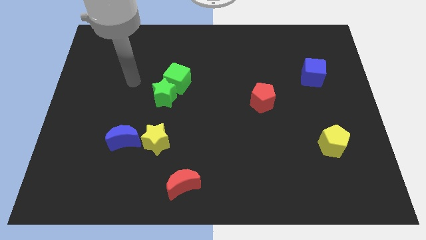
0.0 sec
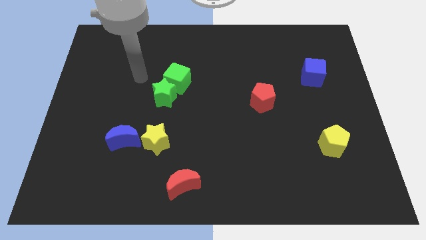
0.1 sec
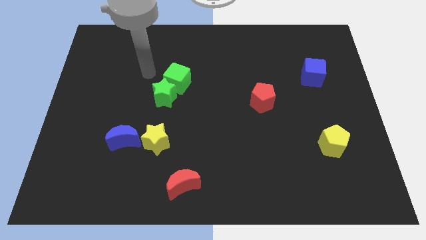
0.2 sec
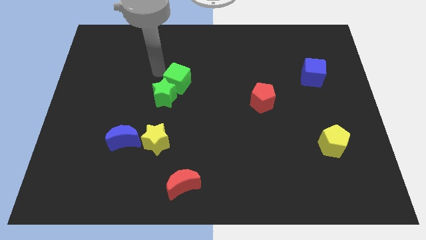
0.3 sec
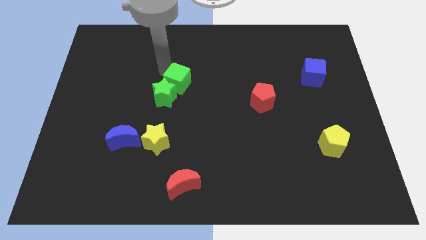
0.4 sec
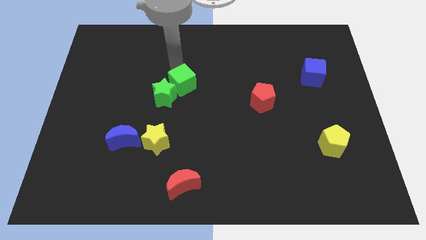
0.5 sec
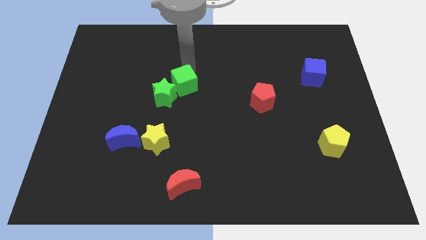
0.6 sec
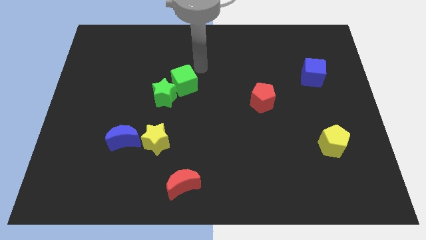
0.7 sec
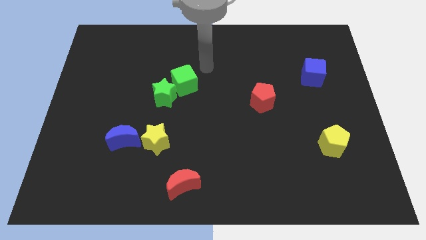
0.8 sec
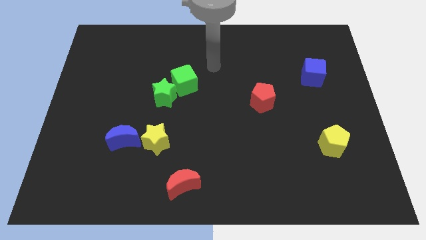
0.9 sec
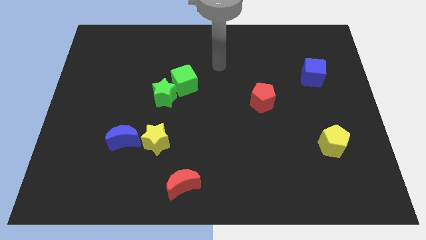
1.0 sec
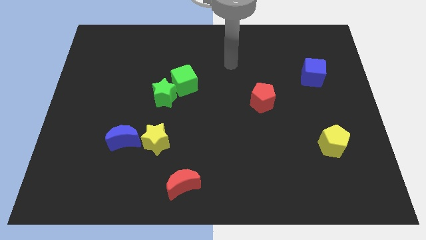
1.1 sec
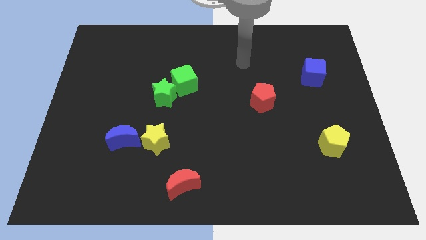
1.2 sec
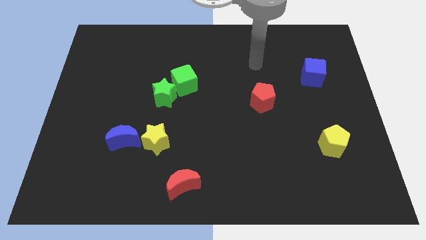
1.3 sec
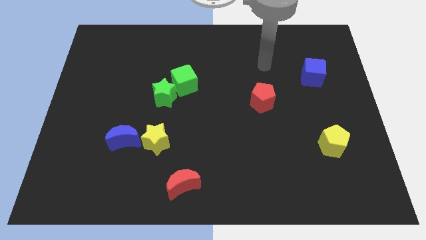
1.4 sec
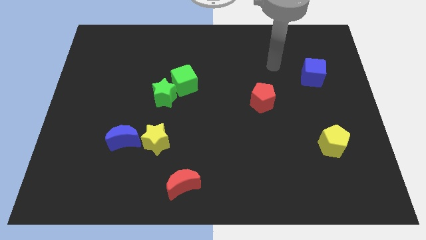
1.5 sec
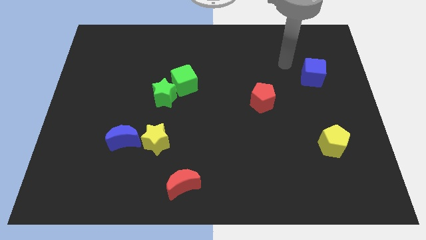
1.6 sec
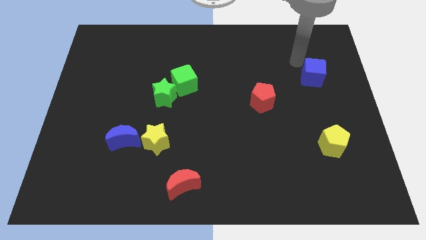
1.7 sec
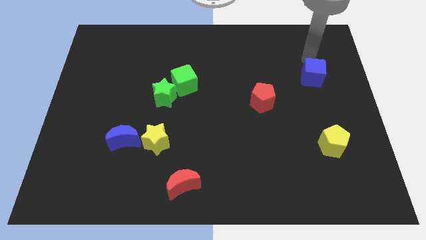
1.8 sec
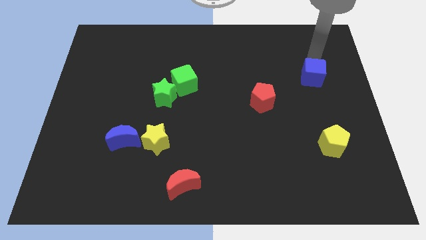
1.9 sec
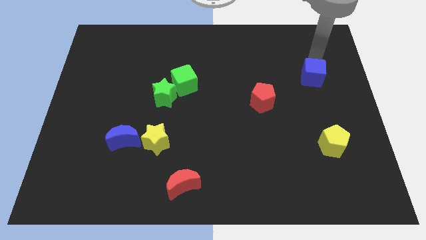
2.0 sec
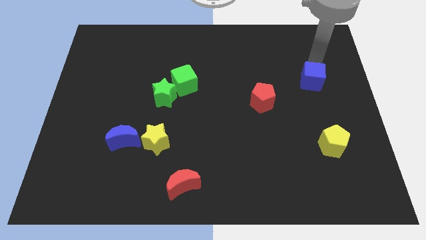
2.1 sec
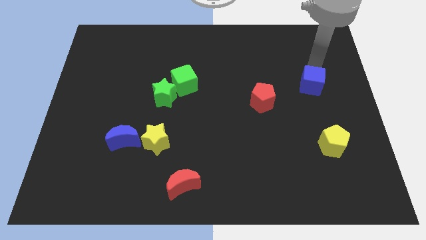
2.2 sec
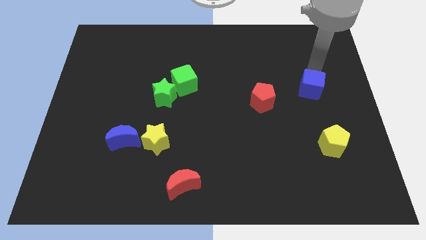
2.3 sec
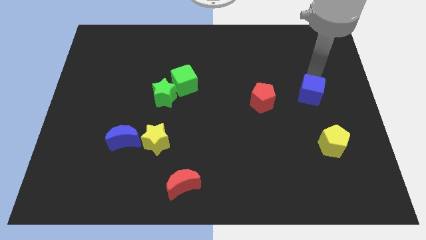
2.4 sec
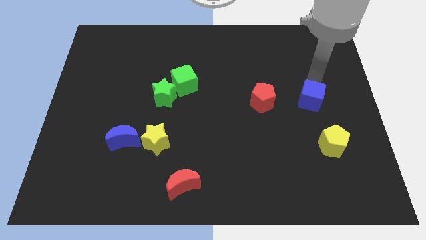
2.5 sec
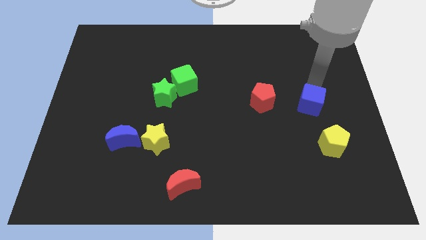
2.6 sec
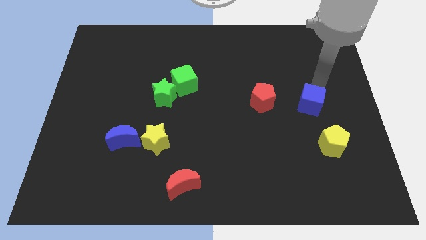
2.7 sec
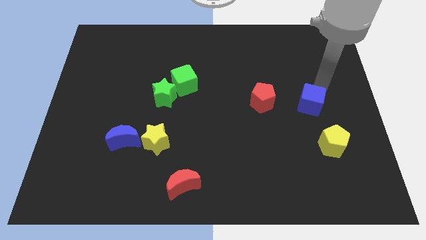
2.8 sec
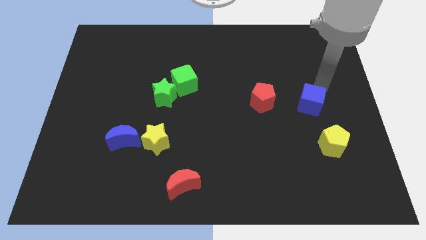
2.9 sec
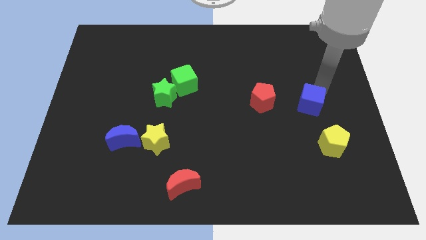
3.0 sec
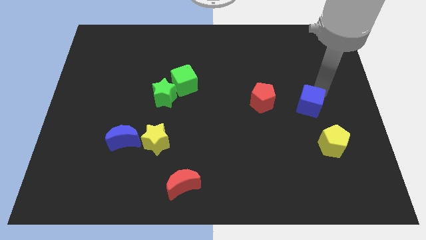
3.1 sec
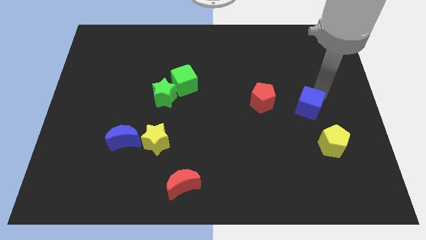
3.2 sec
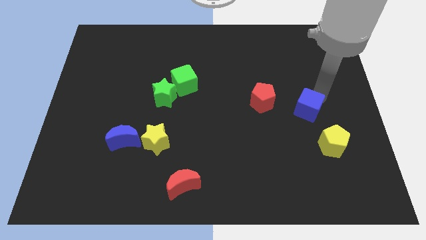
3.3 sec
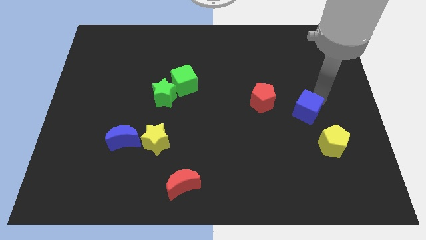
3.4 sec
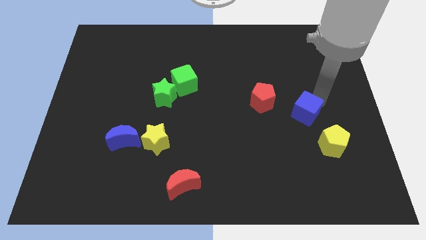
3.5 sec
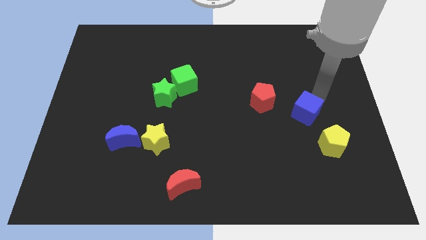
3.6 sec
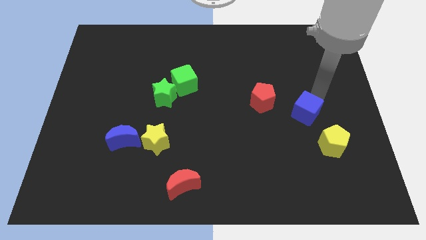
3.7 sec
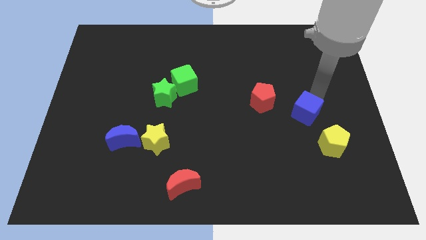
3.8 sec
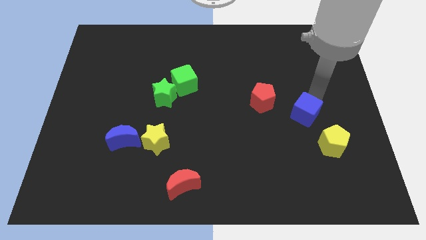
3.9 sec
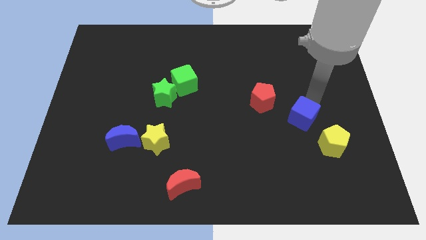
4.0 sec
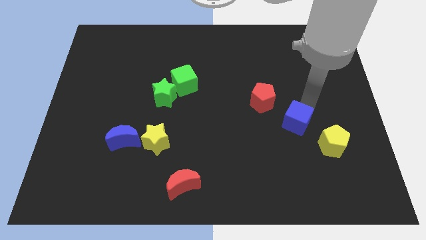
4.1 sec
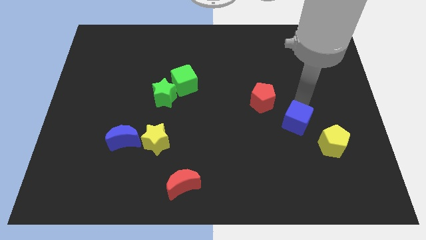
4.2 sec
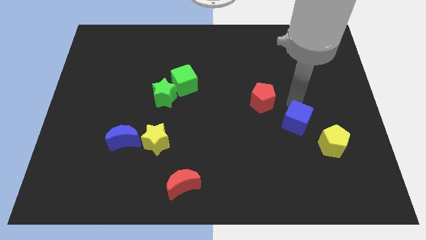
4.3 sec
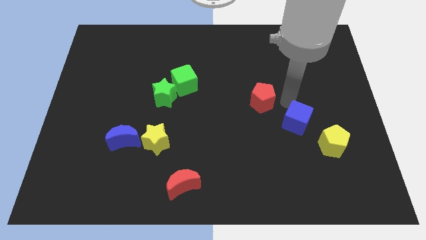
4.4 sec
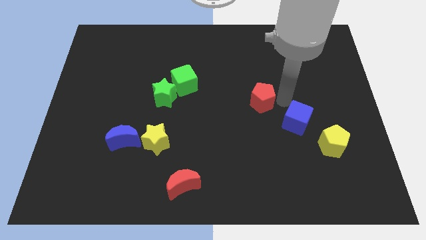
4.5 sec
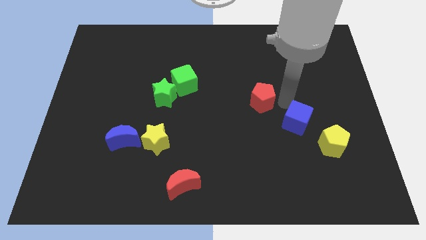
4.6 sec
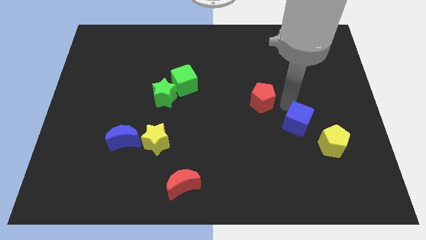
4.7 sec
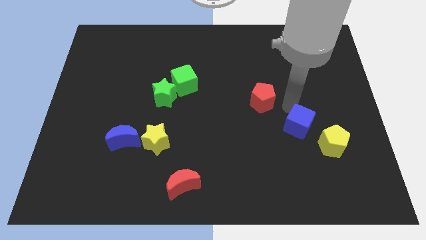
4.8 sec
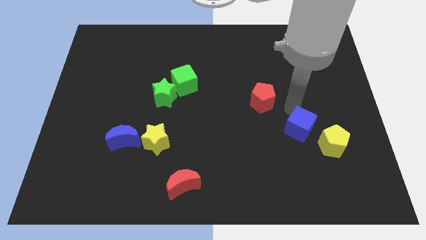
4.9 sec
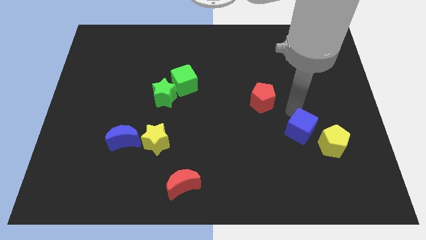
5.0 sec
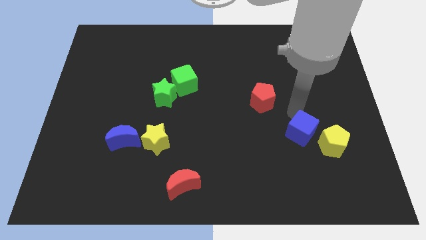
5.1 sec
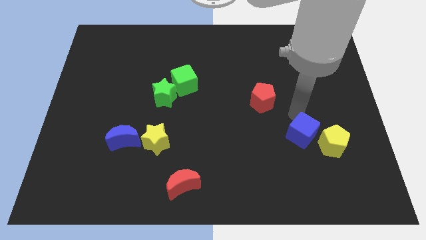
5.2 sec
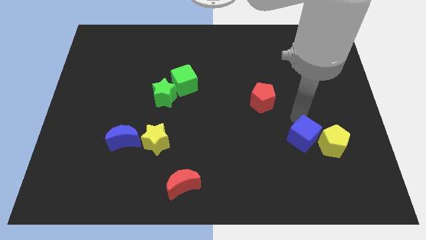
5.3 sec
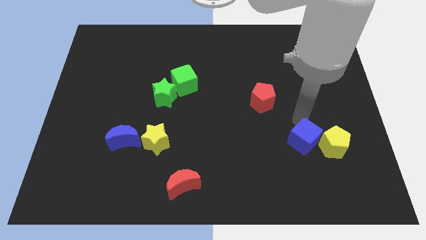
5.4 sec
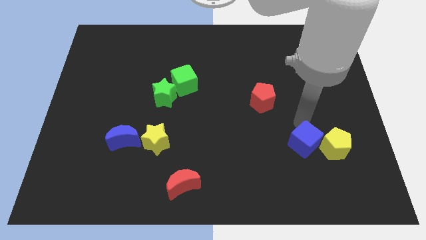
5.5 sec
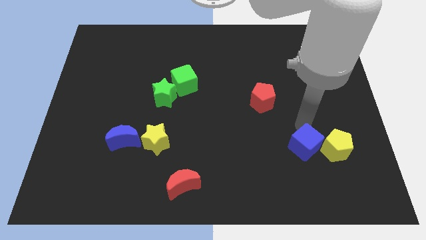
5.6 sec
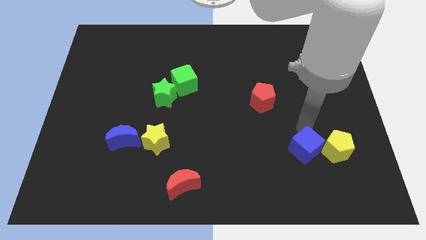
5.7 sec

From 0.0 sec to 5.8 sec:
put the blue cube to the bottom left of the yellow pentagon

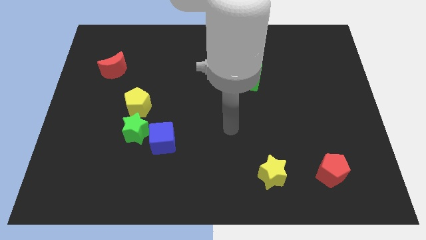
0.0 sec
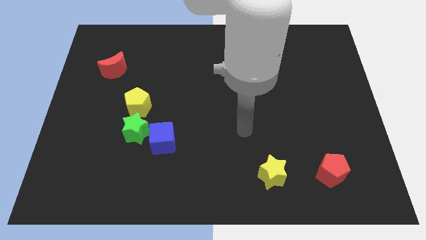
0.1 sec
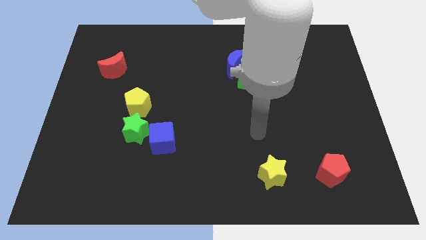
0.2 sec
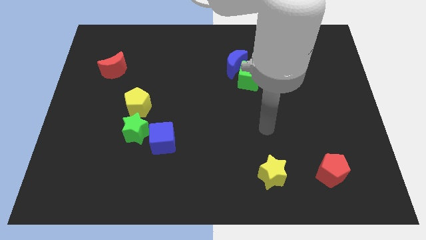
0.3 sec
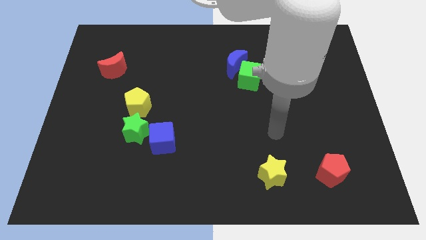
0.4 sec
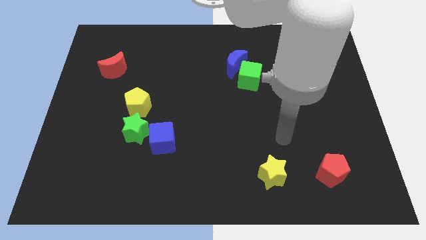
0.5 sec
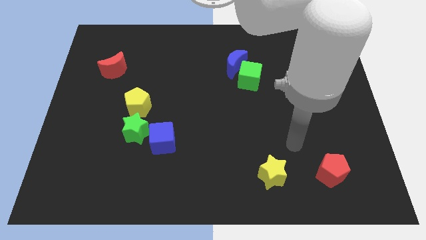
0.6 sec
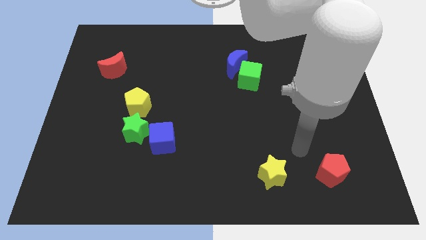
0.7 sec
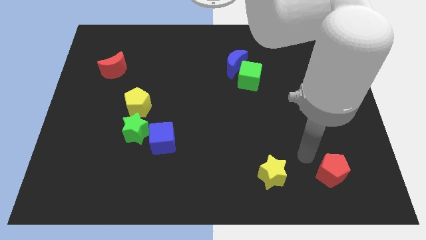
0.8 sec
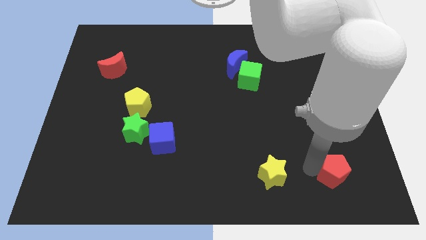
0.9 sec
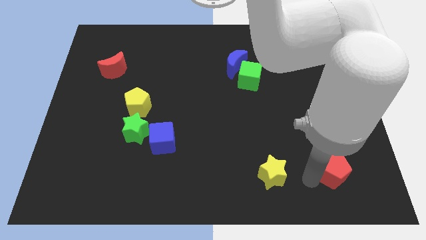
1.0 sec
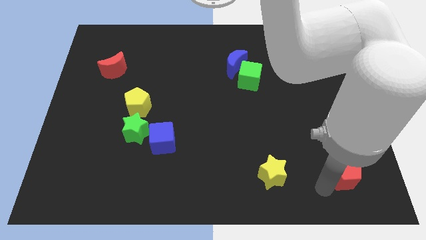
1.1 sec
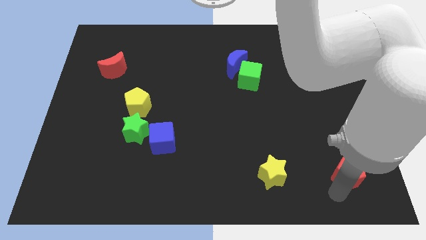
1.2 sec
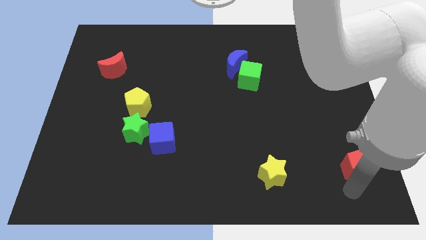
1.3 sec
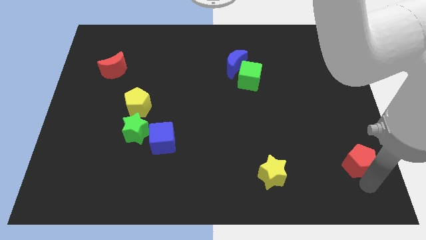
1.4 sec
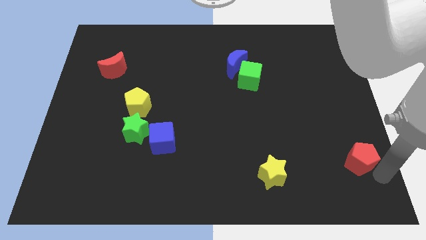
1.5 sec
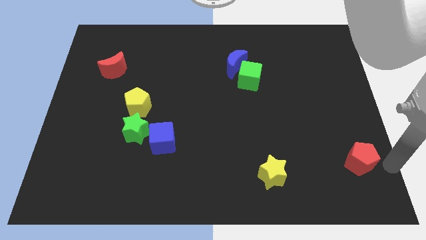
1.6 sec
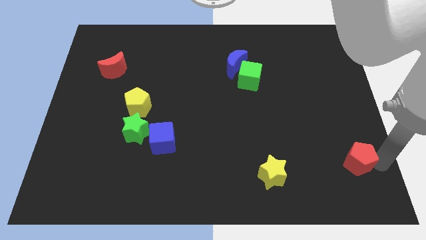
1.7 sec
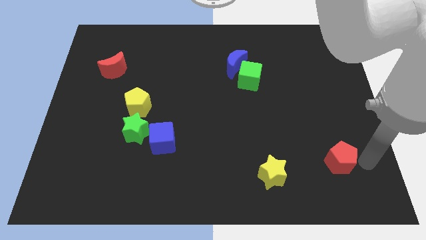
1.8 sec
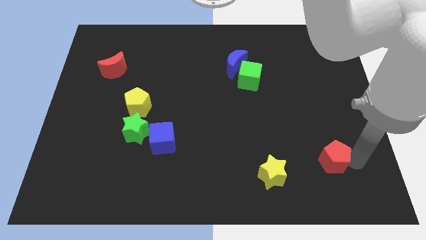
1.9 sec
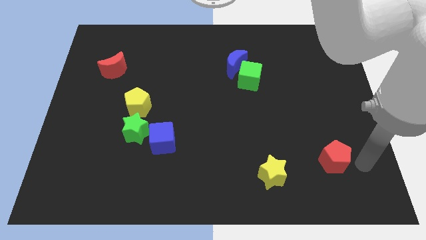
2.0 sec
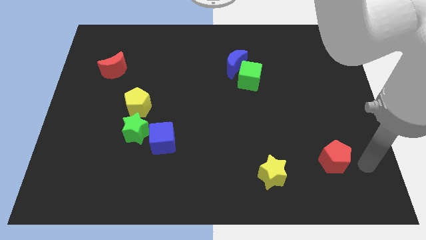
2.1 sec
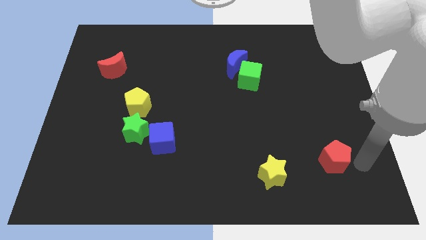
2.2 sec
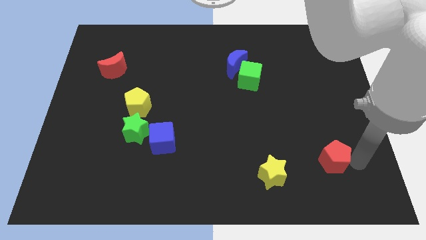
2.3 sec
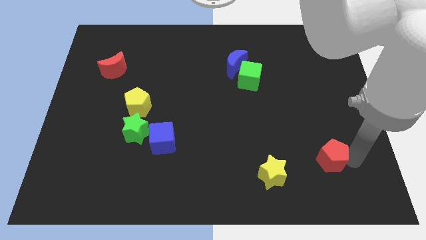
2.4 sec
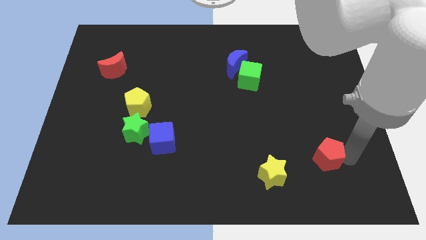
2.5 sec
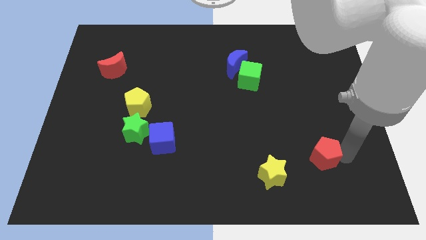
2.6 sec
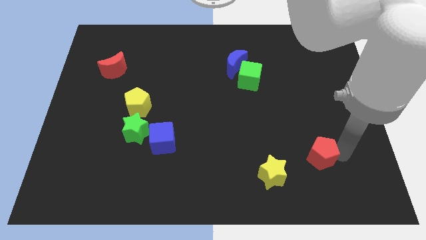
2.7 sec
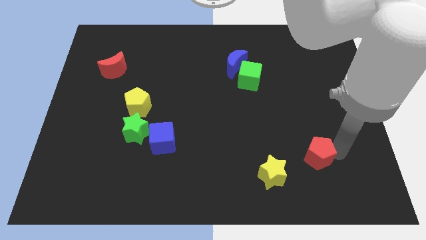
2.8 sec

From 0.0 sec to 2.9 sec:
push the red pentagon diagonally up and to the right of the yellow star

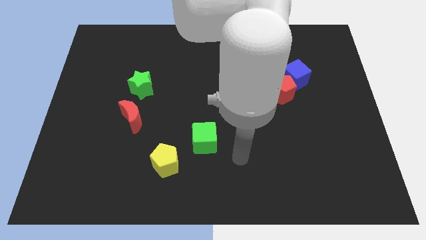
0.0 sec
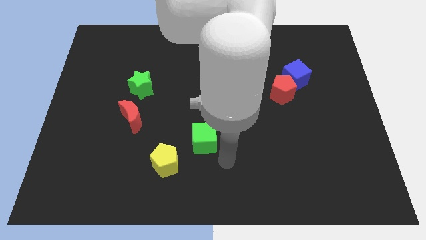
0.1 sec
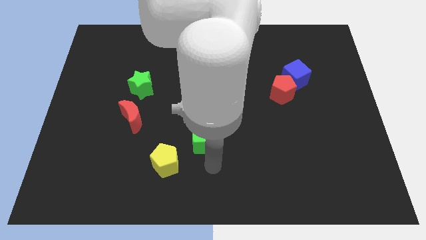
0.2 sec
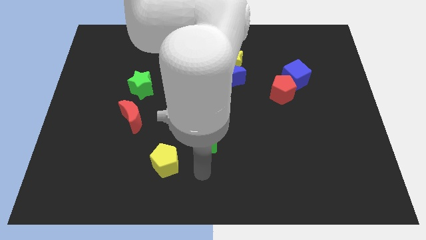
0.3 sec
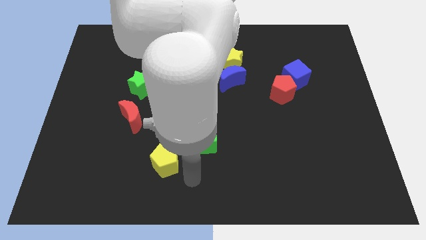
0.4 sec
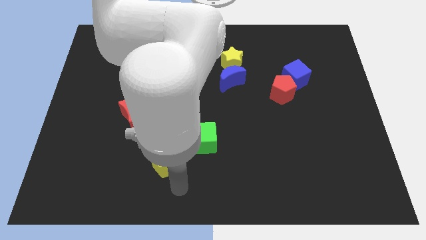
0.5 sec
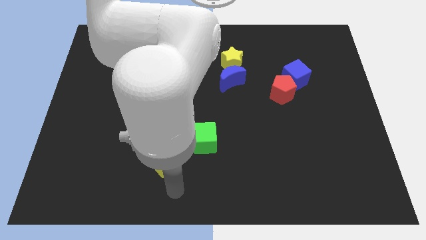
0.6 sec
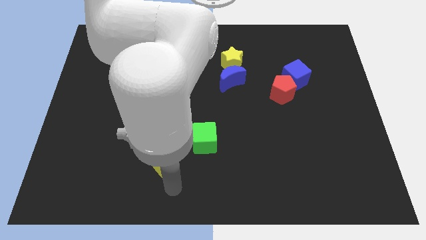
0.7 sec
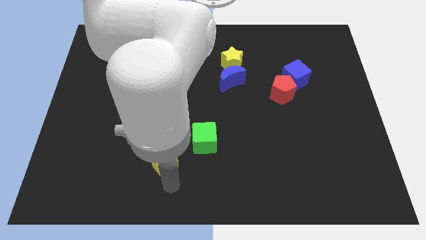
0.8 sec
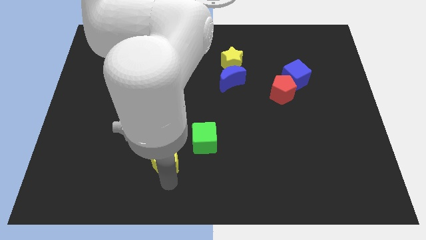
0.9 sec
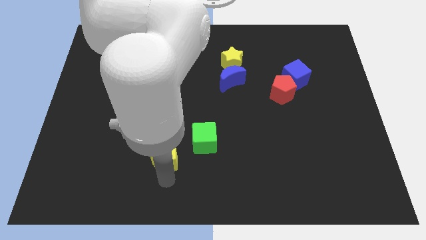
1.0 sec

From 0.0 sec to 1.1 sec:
slide the yellow pentagon just left of the green cube
